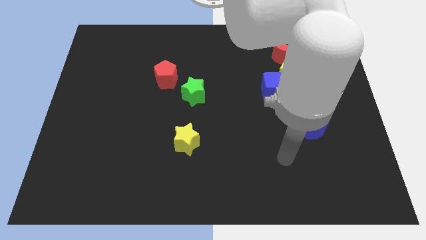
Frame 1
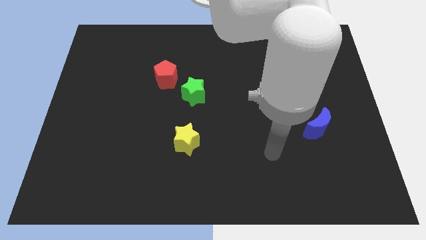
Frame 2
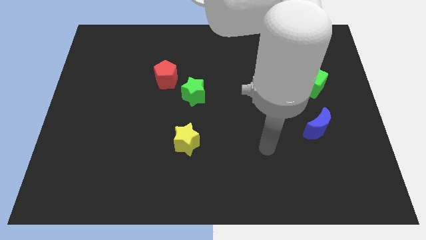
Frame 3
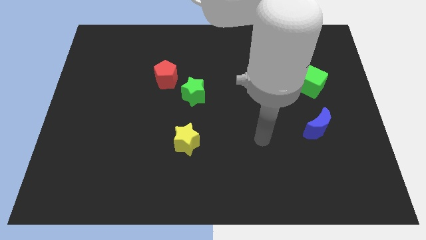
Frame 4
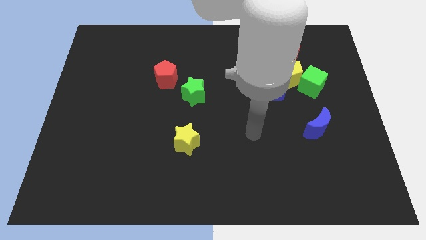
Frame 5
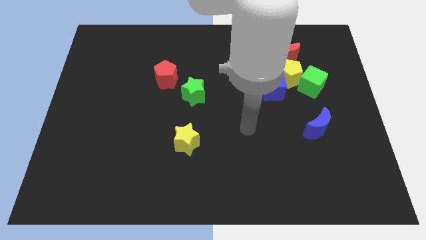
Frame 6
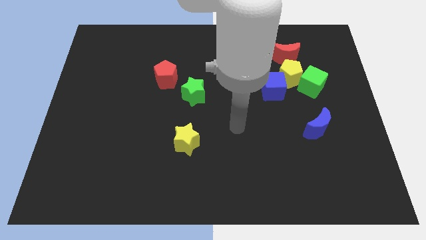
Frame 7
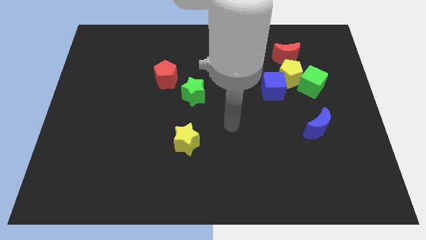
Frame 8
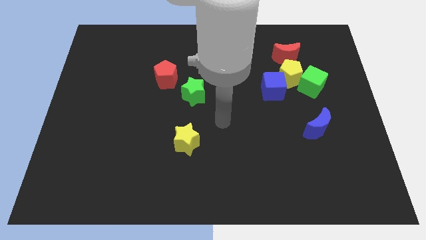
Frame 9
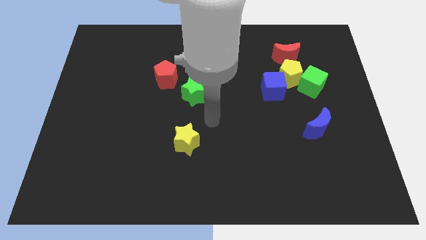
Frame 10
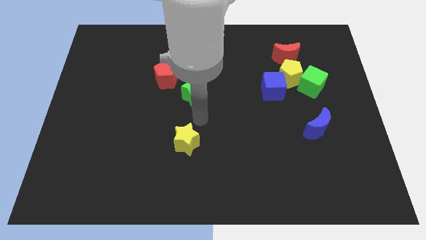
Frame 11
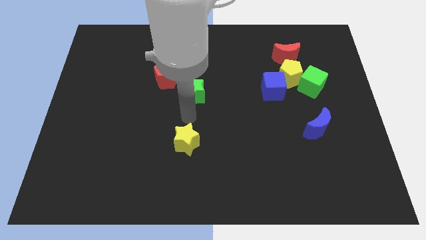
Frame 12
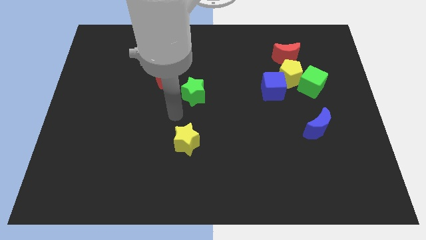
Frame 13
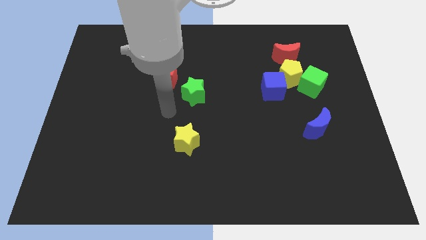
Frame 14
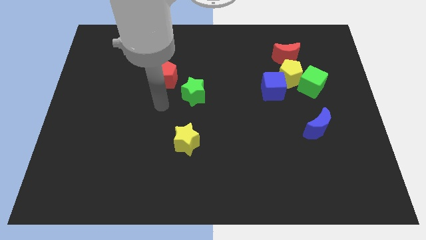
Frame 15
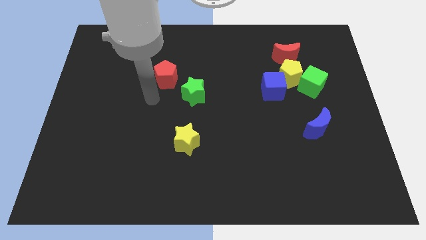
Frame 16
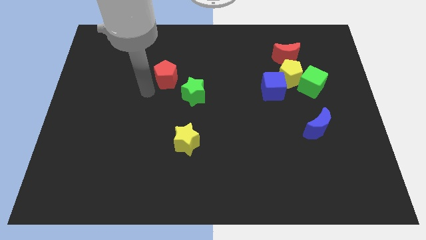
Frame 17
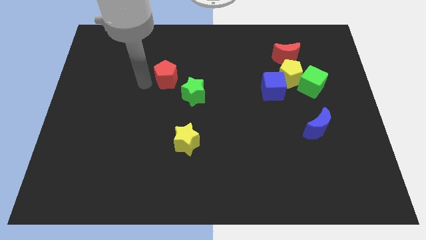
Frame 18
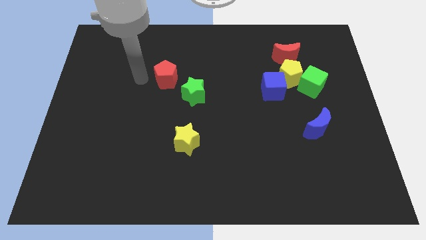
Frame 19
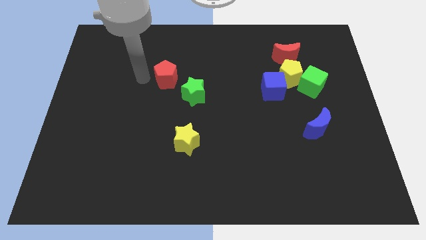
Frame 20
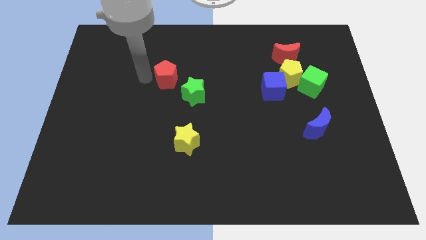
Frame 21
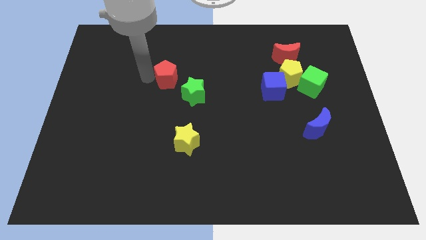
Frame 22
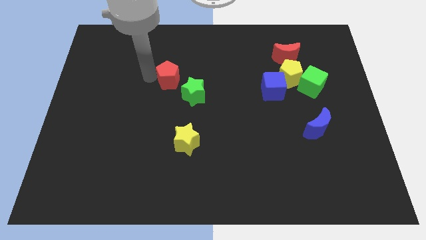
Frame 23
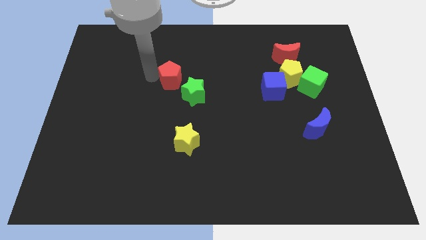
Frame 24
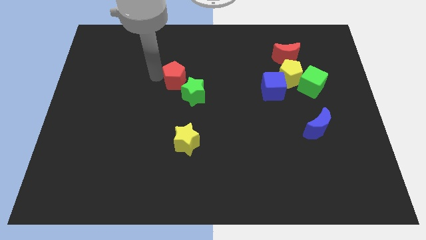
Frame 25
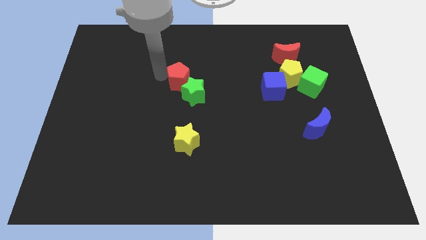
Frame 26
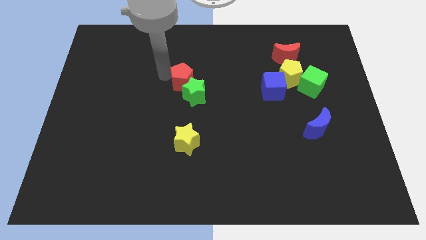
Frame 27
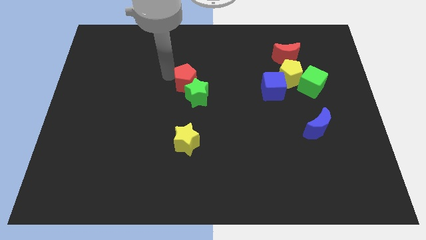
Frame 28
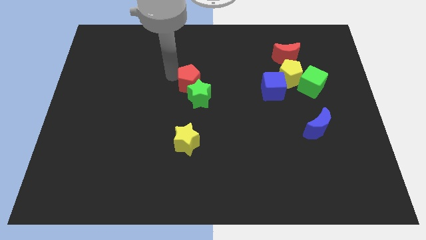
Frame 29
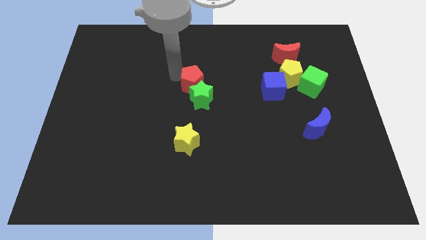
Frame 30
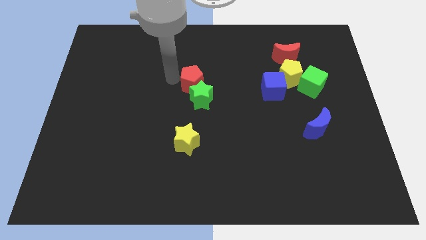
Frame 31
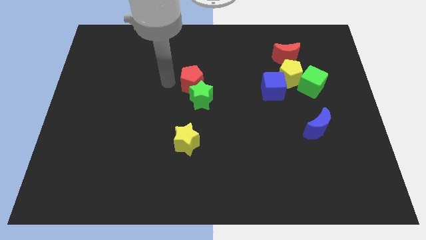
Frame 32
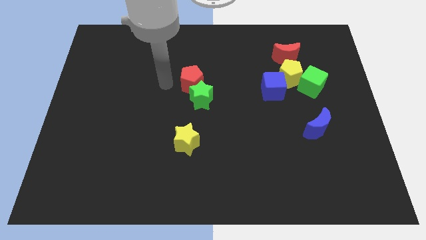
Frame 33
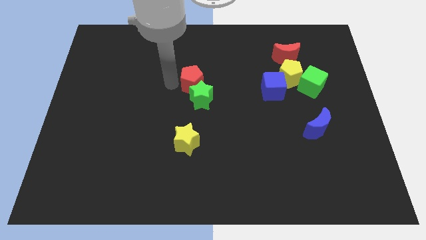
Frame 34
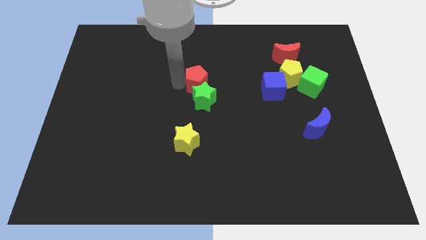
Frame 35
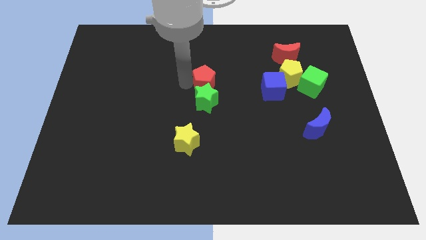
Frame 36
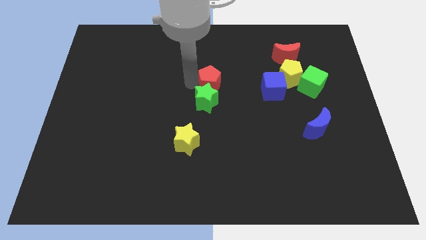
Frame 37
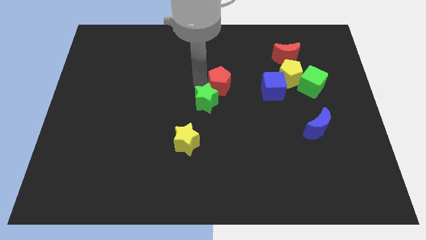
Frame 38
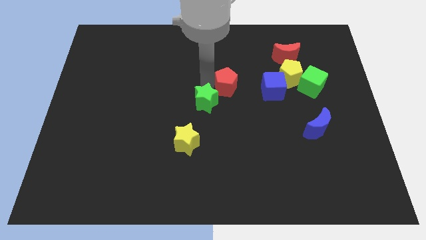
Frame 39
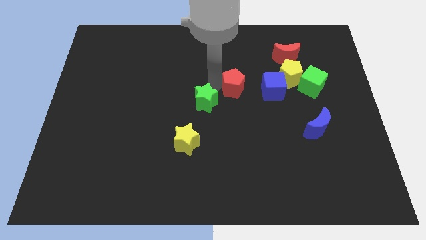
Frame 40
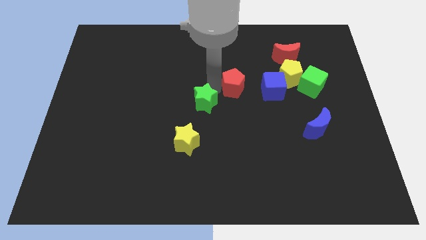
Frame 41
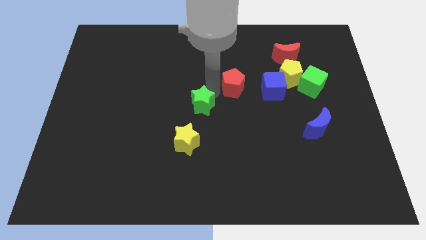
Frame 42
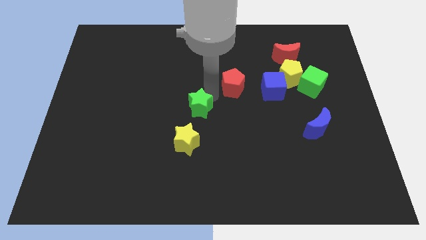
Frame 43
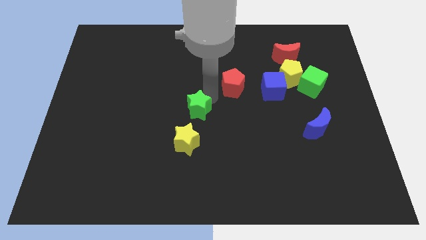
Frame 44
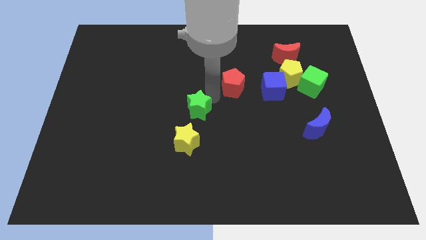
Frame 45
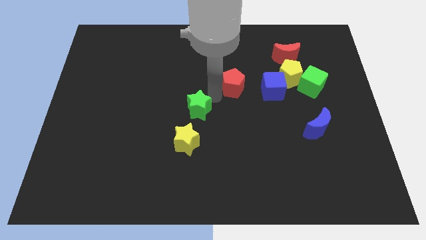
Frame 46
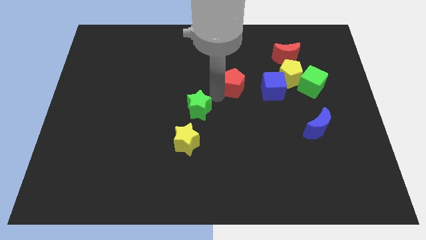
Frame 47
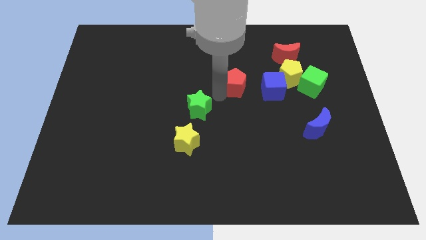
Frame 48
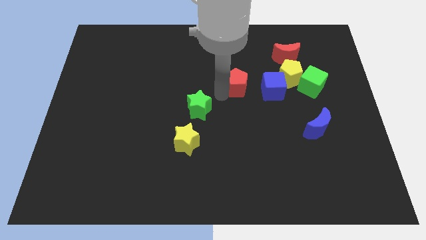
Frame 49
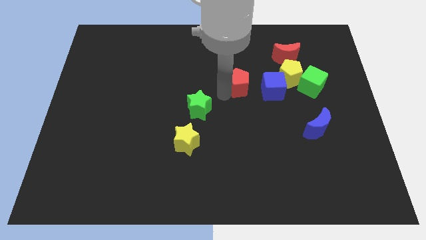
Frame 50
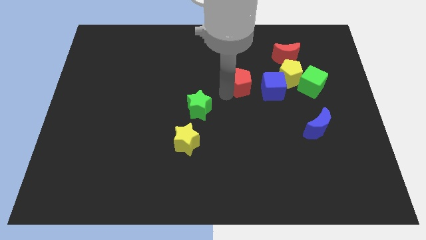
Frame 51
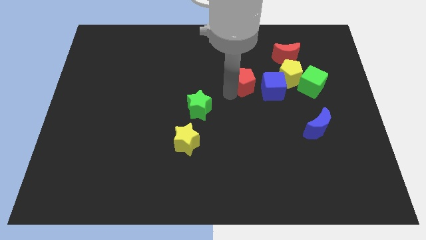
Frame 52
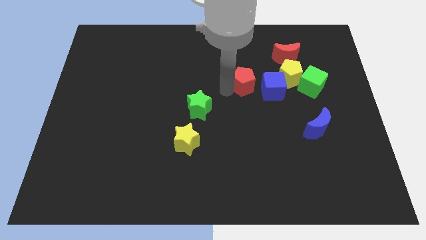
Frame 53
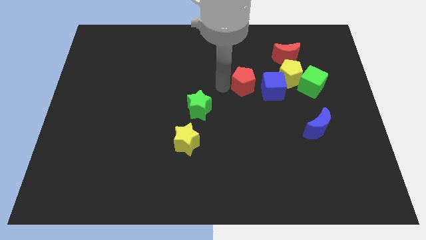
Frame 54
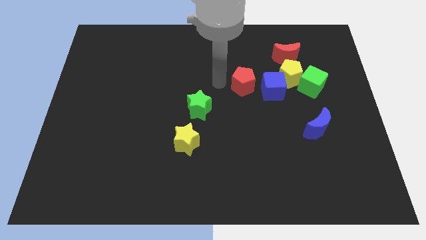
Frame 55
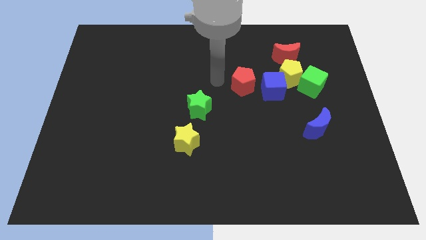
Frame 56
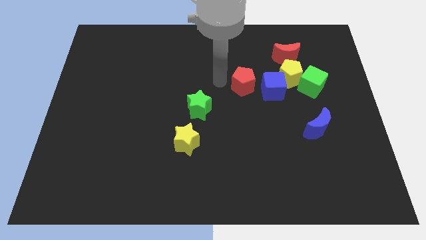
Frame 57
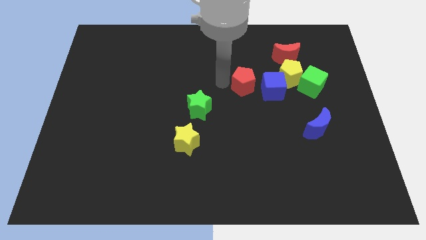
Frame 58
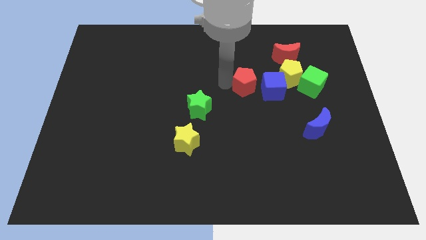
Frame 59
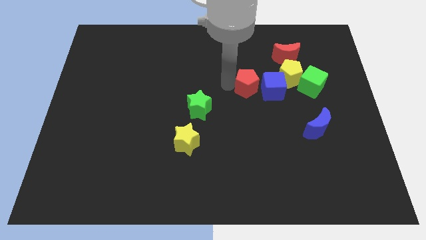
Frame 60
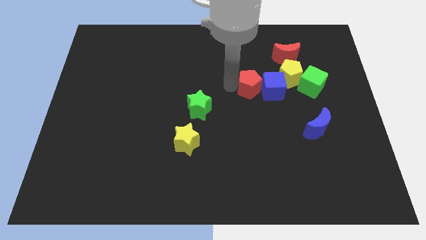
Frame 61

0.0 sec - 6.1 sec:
put the red pentagon next to the blue cube
